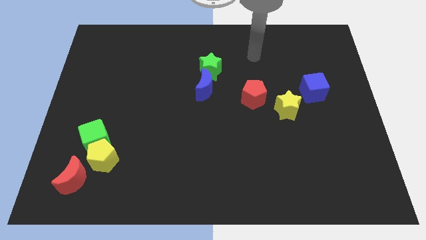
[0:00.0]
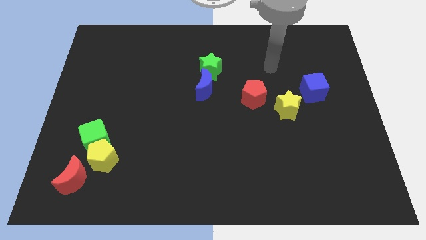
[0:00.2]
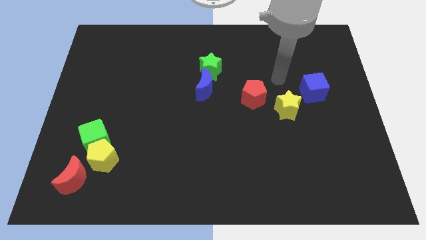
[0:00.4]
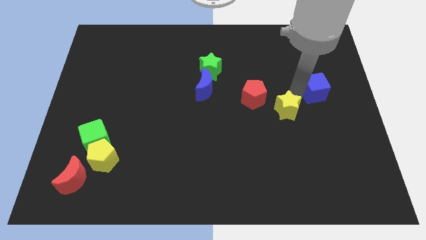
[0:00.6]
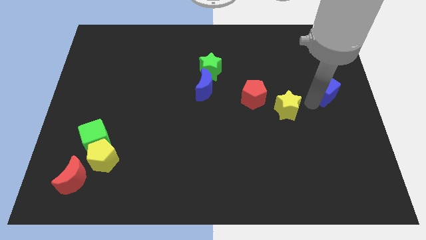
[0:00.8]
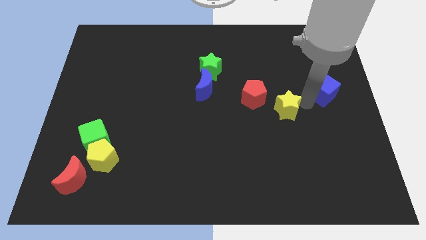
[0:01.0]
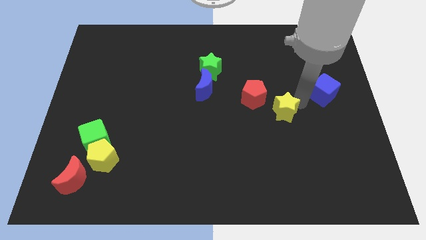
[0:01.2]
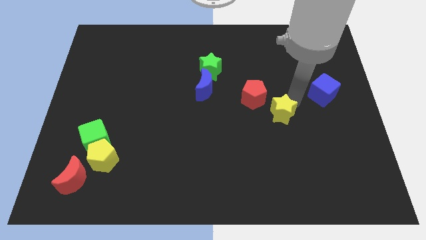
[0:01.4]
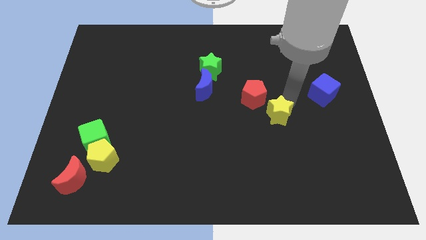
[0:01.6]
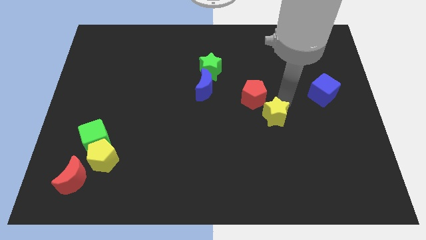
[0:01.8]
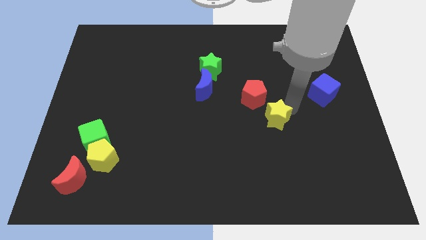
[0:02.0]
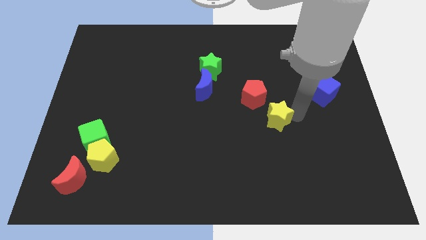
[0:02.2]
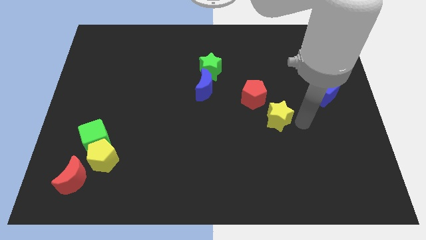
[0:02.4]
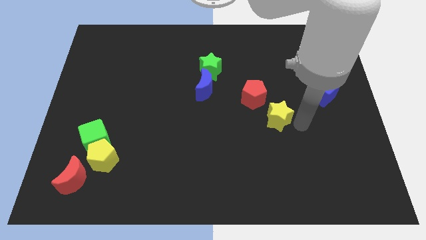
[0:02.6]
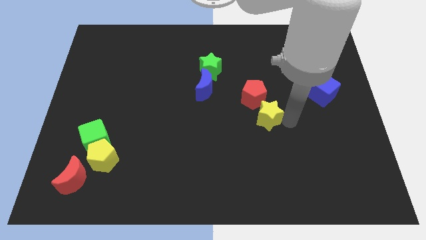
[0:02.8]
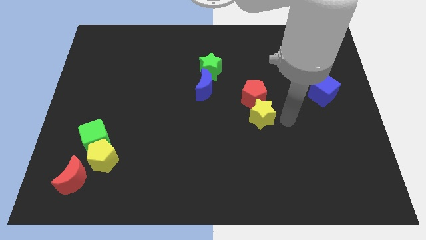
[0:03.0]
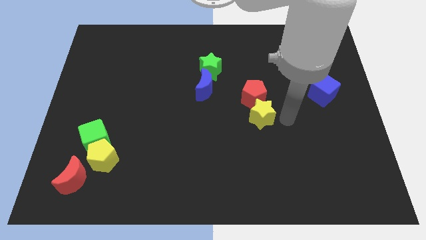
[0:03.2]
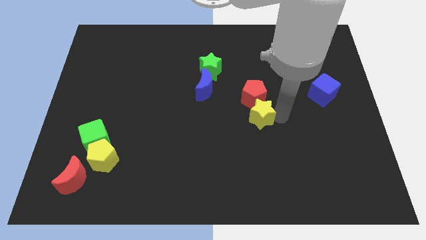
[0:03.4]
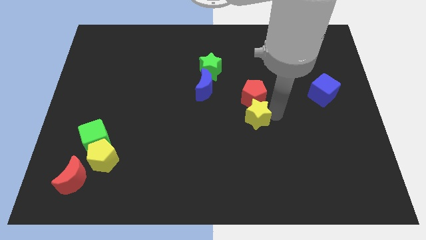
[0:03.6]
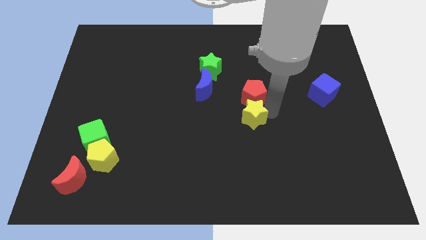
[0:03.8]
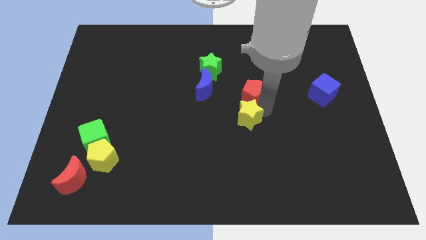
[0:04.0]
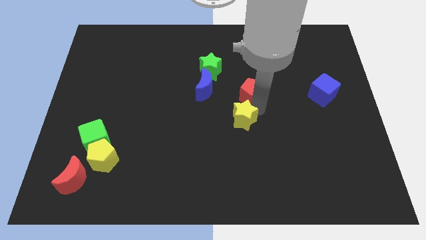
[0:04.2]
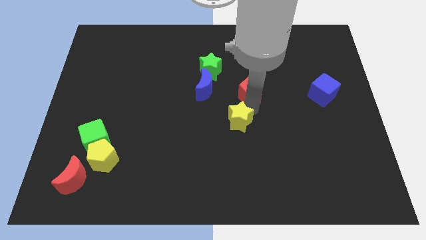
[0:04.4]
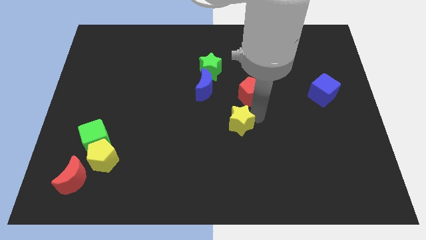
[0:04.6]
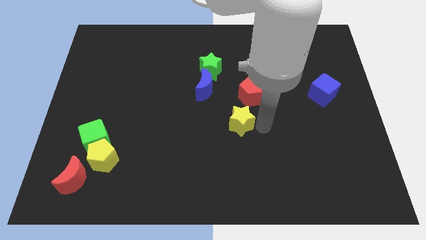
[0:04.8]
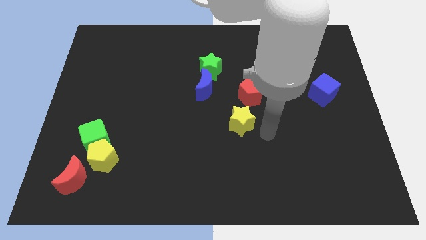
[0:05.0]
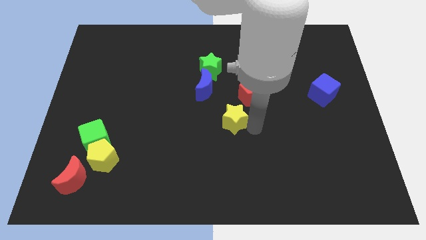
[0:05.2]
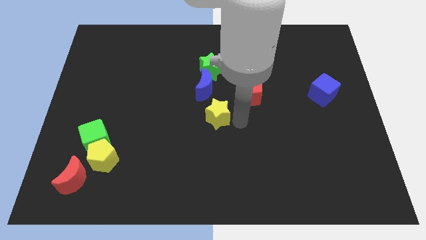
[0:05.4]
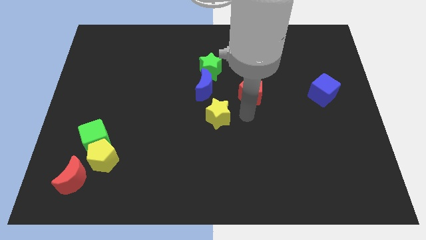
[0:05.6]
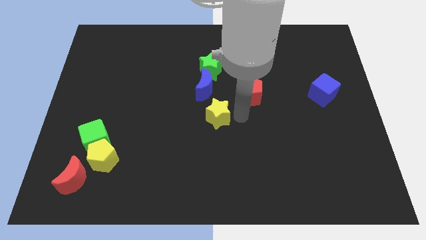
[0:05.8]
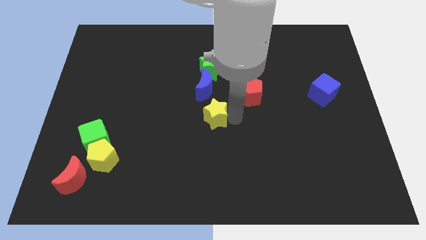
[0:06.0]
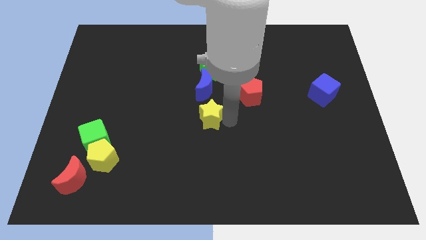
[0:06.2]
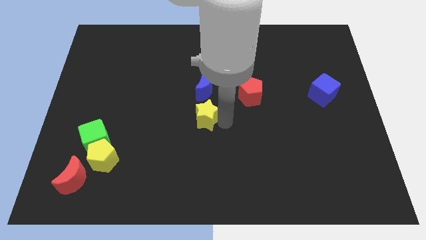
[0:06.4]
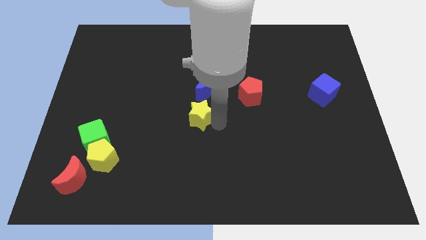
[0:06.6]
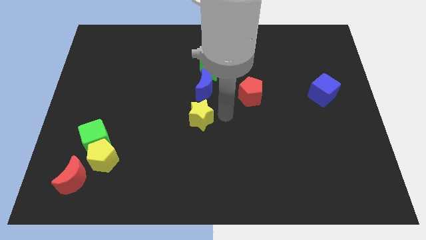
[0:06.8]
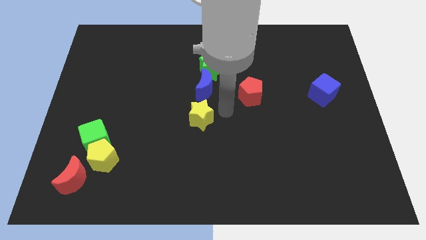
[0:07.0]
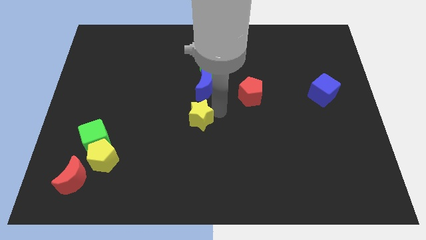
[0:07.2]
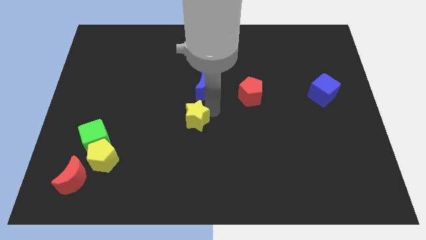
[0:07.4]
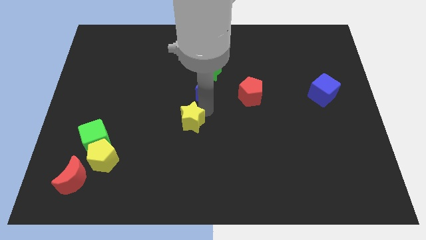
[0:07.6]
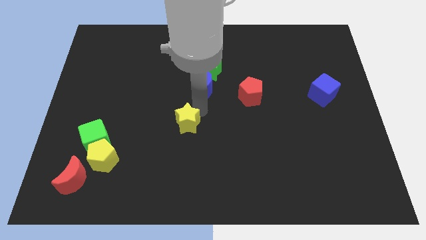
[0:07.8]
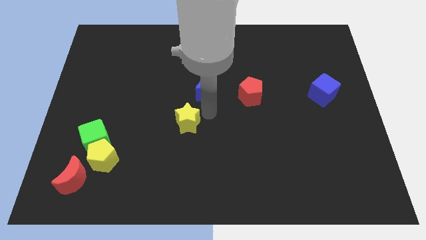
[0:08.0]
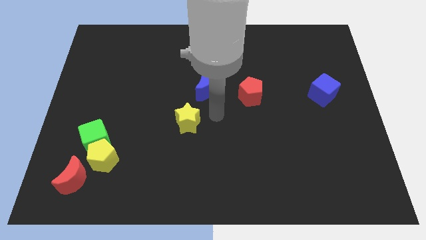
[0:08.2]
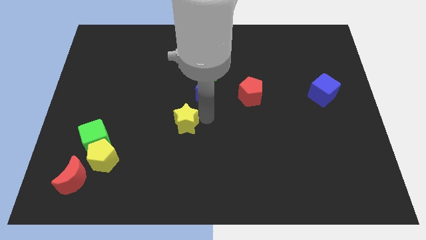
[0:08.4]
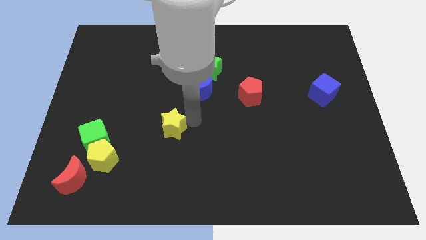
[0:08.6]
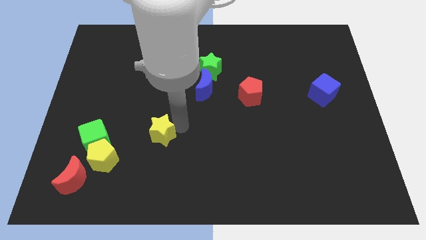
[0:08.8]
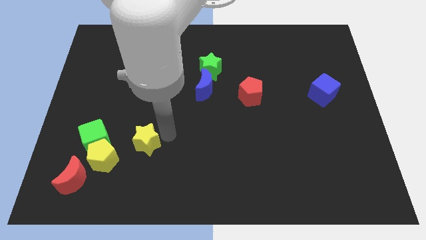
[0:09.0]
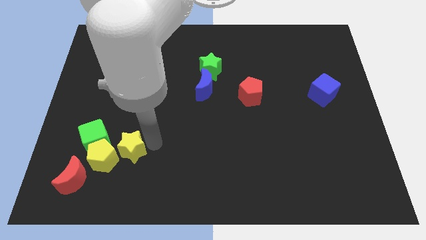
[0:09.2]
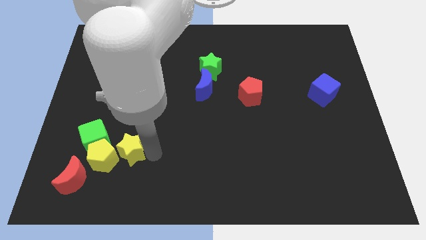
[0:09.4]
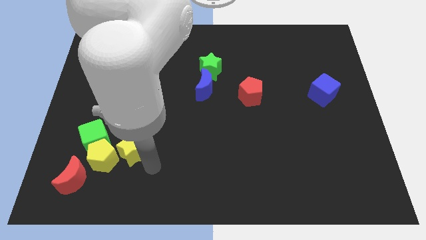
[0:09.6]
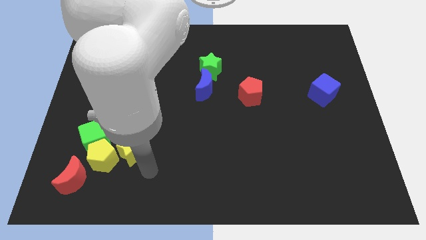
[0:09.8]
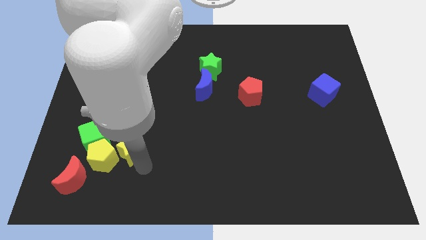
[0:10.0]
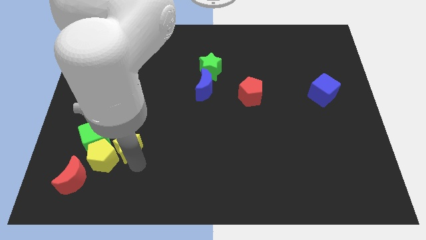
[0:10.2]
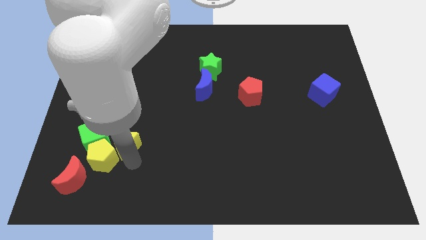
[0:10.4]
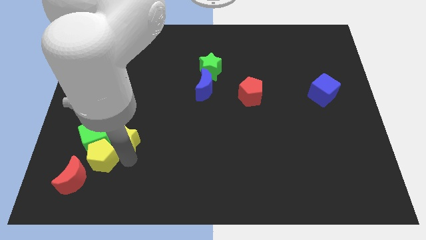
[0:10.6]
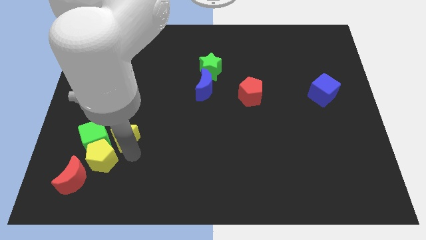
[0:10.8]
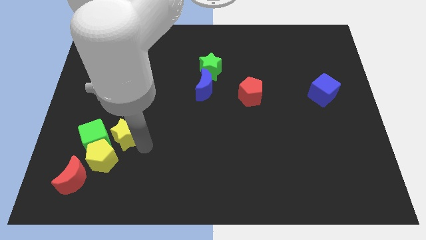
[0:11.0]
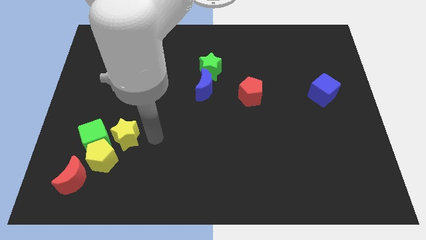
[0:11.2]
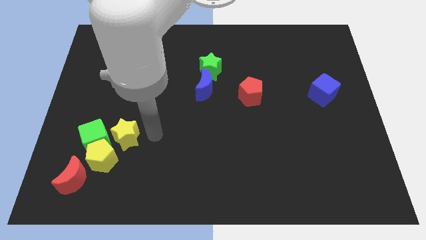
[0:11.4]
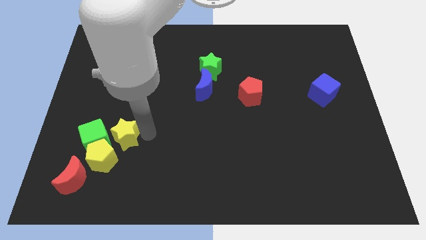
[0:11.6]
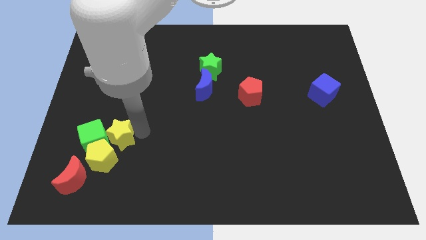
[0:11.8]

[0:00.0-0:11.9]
push the yellow star towards the green cube

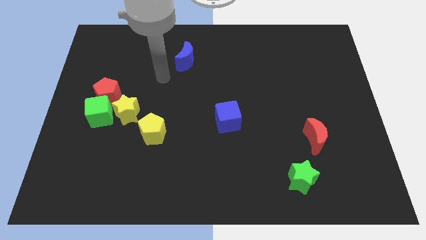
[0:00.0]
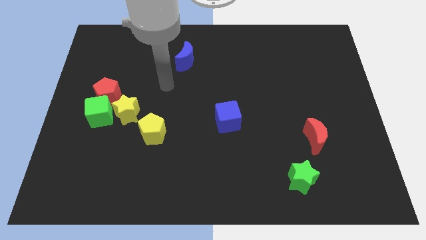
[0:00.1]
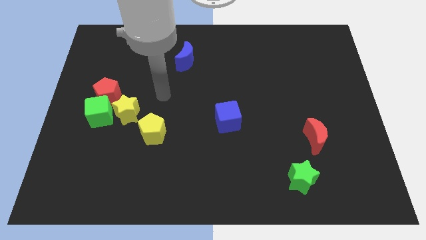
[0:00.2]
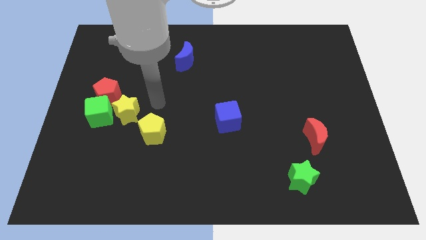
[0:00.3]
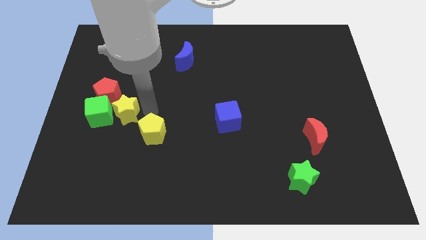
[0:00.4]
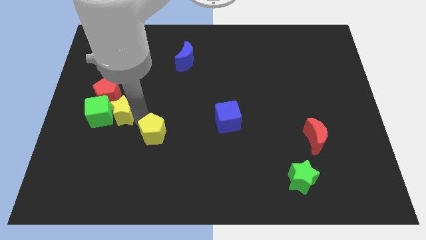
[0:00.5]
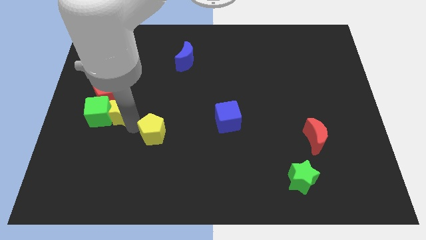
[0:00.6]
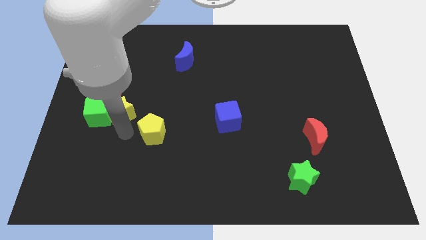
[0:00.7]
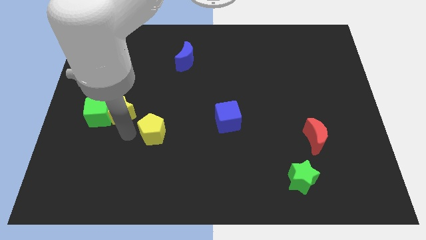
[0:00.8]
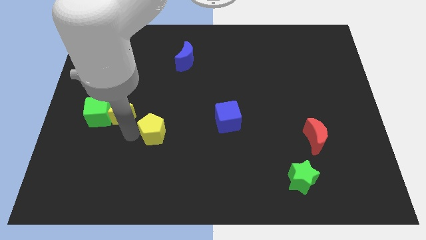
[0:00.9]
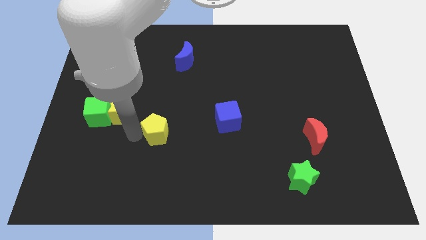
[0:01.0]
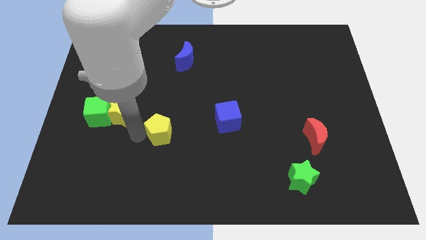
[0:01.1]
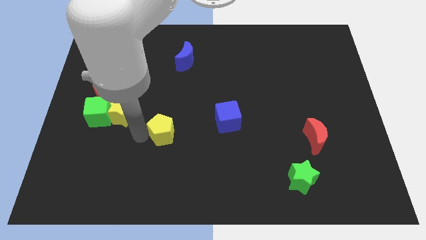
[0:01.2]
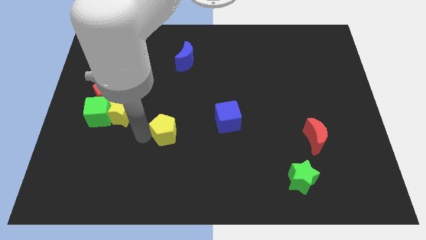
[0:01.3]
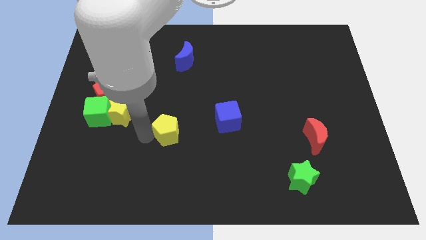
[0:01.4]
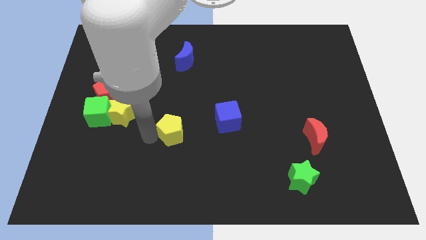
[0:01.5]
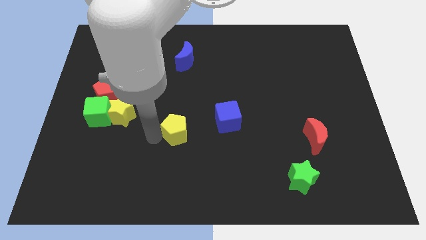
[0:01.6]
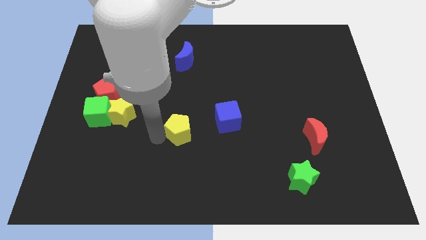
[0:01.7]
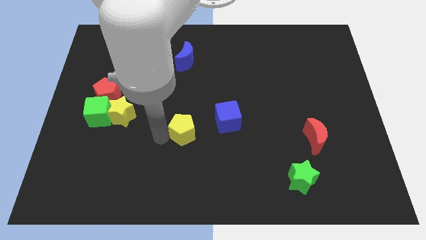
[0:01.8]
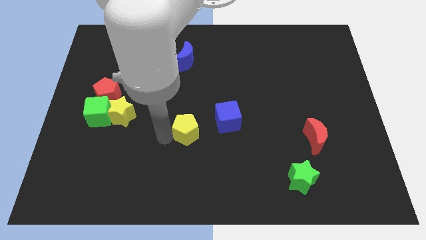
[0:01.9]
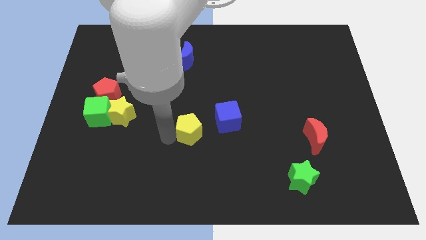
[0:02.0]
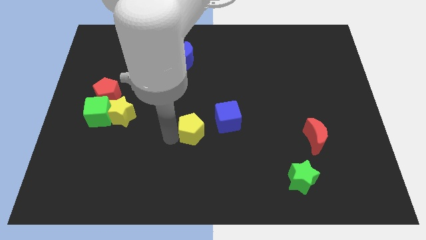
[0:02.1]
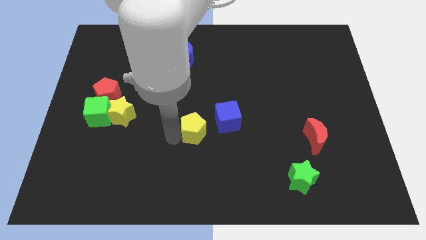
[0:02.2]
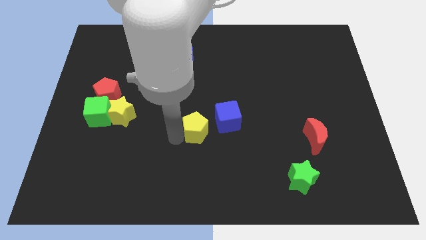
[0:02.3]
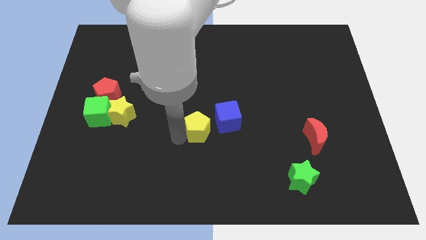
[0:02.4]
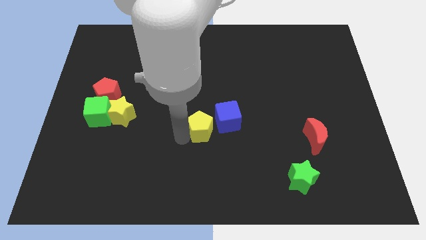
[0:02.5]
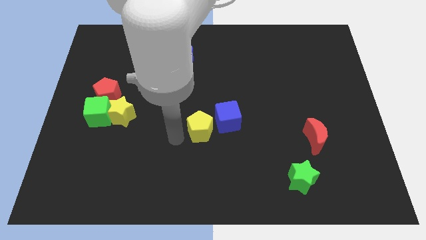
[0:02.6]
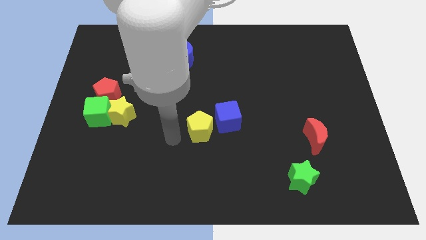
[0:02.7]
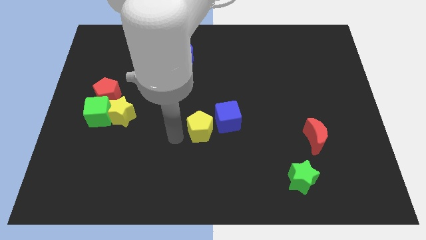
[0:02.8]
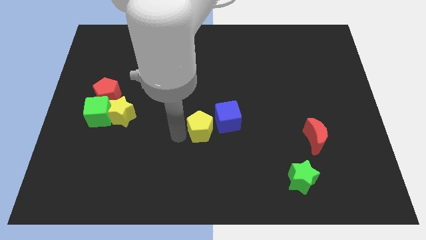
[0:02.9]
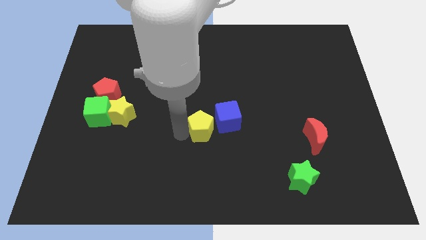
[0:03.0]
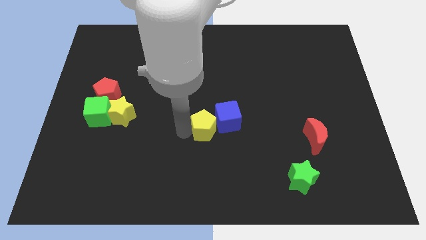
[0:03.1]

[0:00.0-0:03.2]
slide the yellow pentagon to the blue cube
